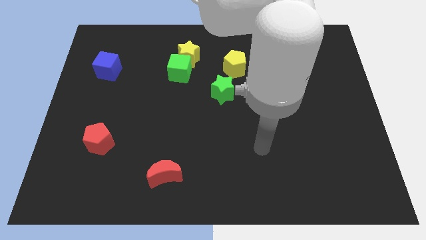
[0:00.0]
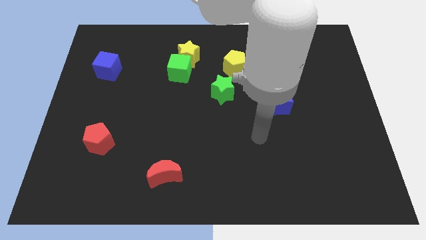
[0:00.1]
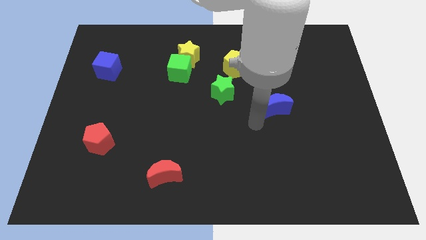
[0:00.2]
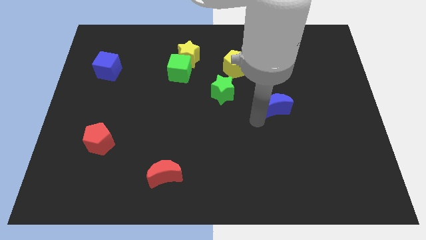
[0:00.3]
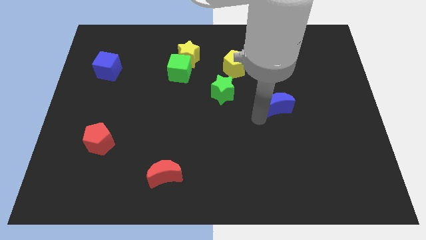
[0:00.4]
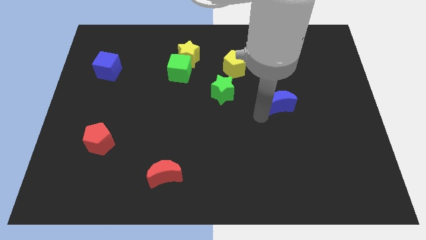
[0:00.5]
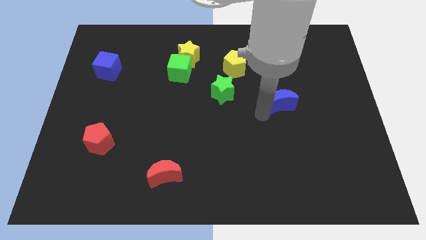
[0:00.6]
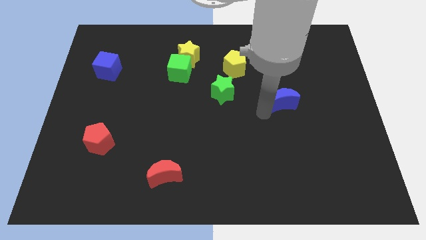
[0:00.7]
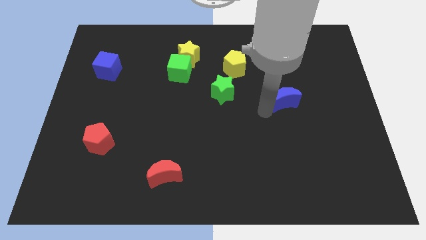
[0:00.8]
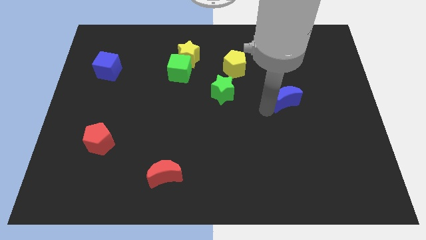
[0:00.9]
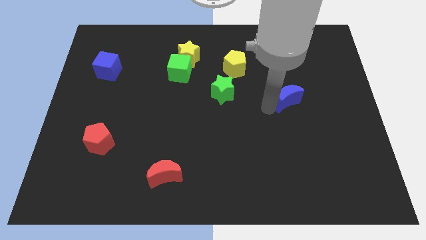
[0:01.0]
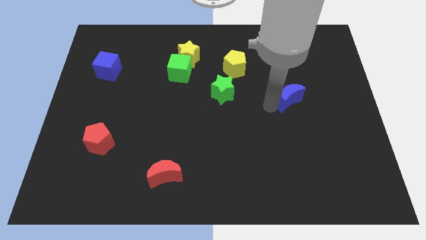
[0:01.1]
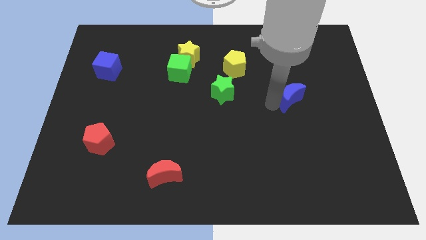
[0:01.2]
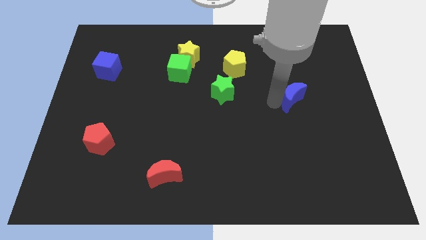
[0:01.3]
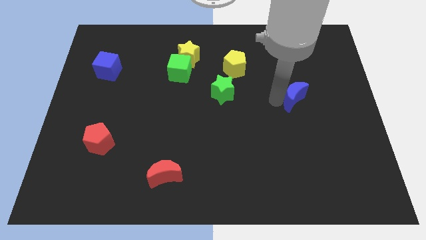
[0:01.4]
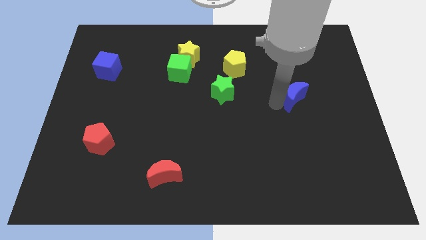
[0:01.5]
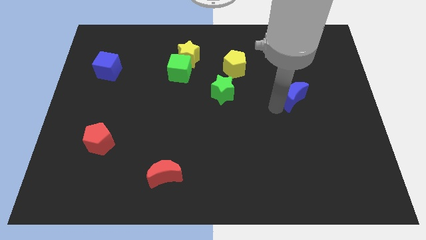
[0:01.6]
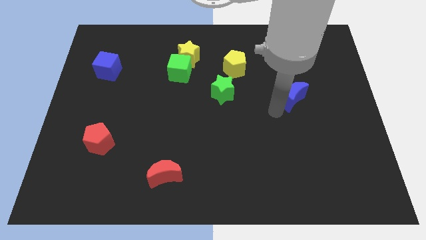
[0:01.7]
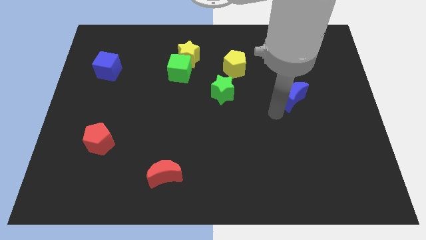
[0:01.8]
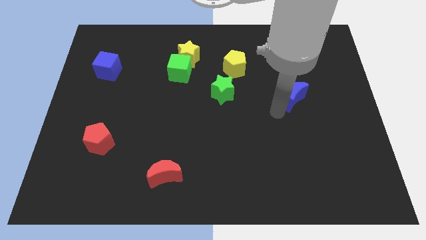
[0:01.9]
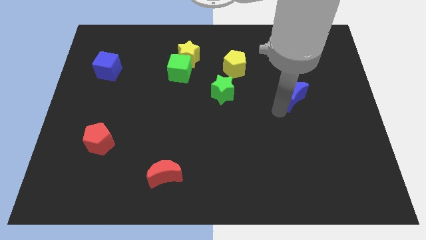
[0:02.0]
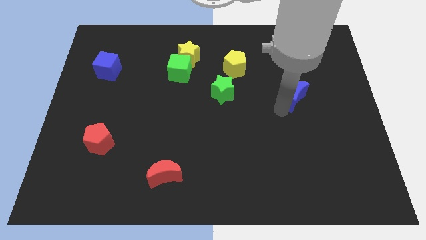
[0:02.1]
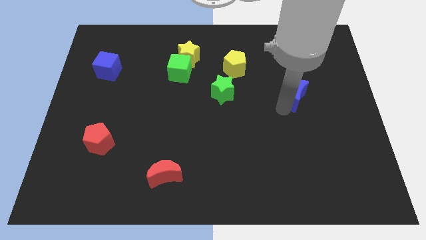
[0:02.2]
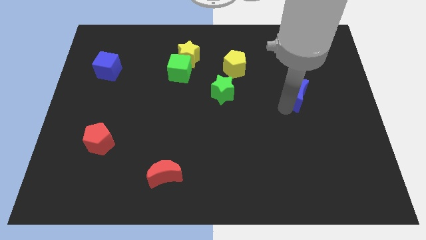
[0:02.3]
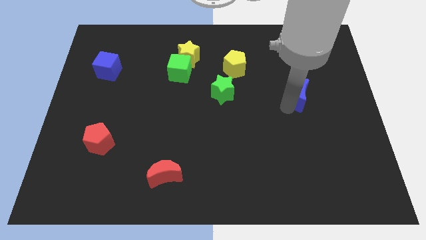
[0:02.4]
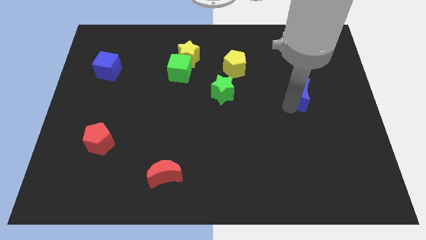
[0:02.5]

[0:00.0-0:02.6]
slightly slide the blue moon up and then right

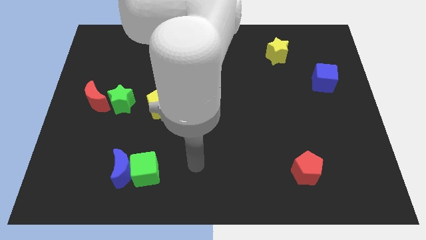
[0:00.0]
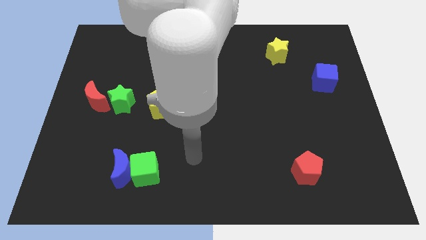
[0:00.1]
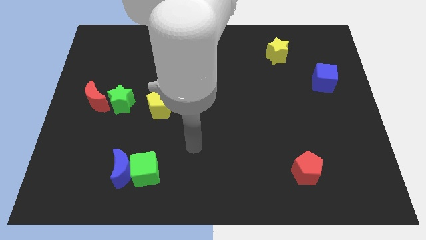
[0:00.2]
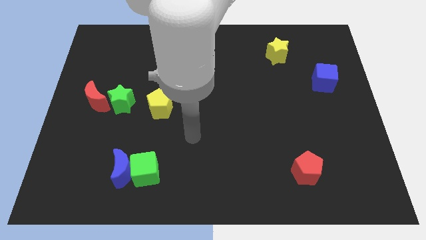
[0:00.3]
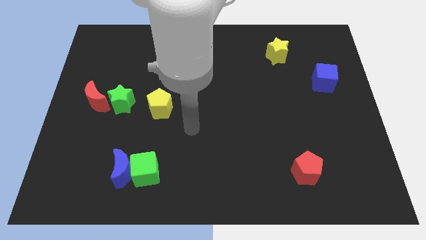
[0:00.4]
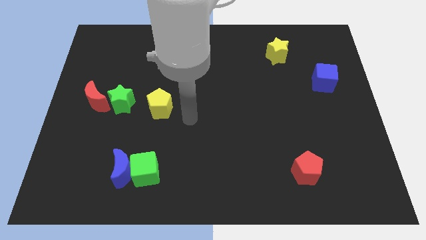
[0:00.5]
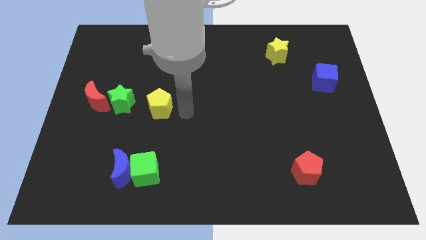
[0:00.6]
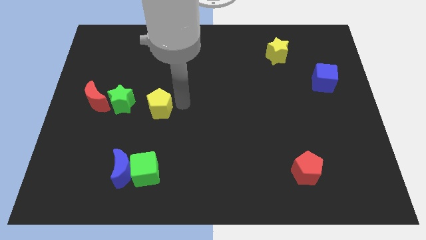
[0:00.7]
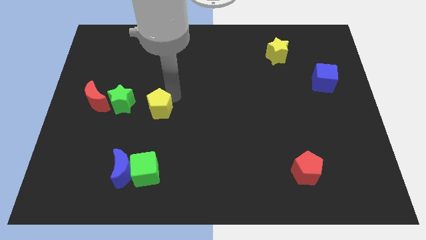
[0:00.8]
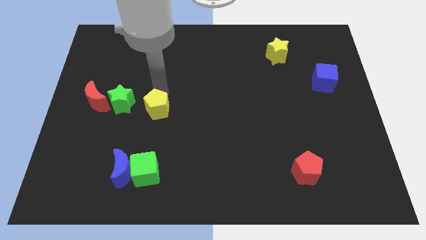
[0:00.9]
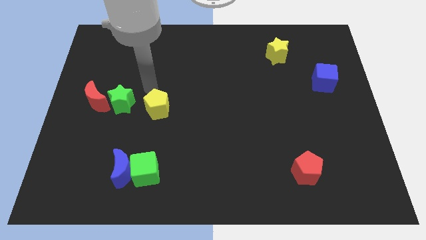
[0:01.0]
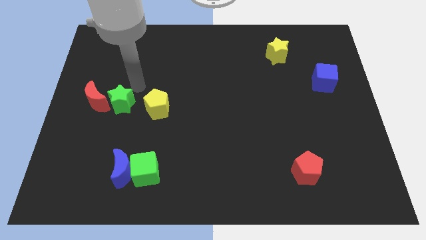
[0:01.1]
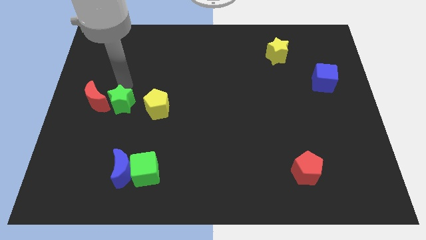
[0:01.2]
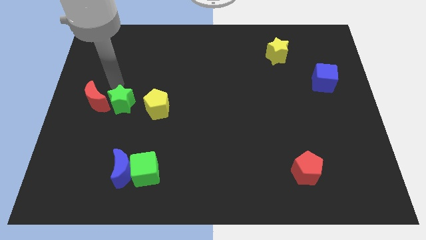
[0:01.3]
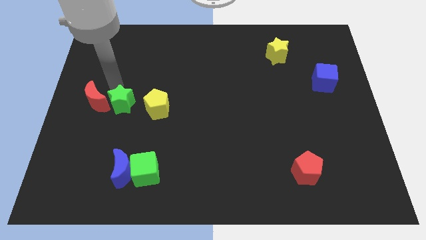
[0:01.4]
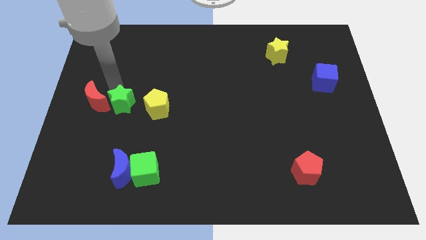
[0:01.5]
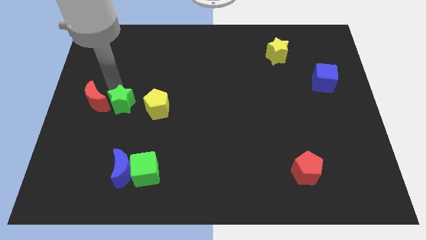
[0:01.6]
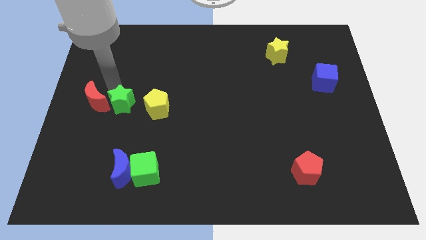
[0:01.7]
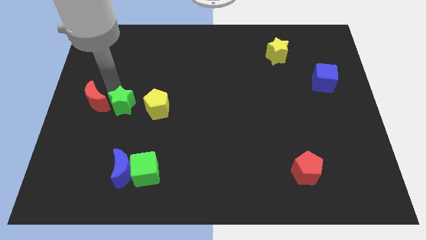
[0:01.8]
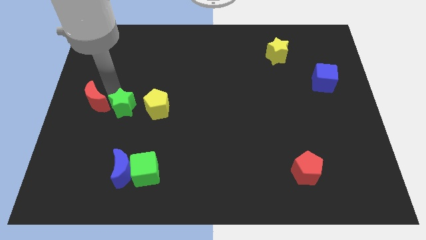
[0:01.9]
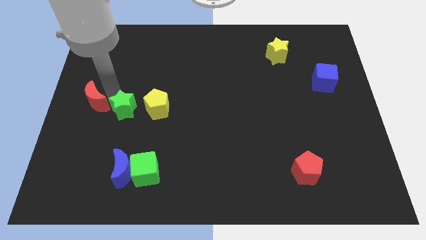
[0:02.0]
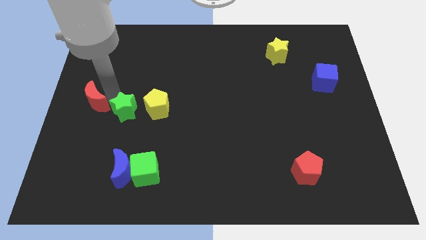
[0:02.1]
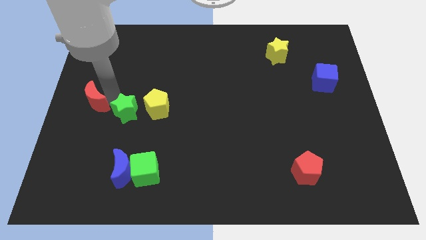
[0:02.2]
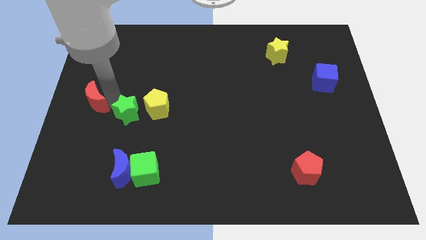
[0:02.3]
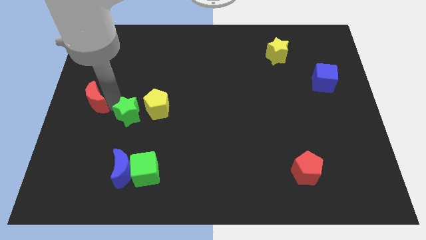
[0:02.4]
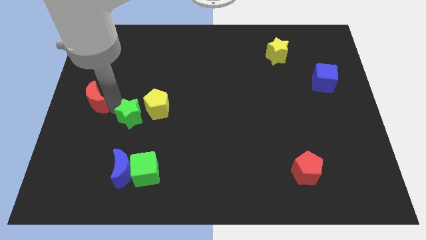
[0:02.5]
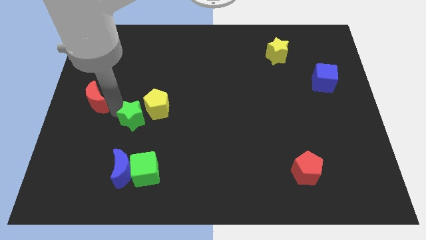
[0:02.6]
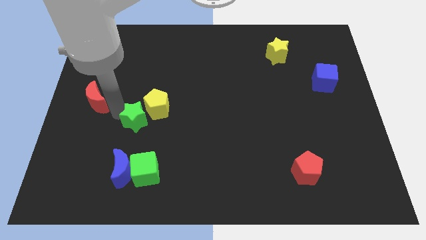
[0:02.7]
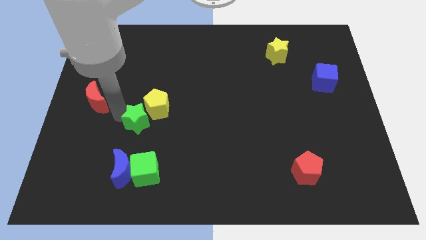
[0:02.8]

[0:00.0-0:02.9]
slide the green star a little bit downwards and to the right

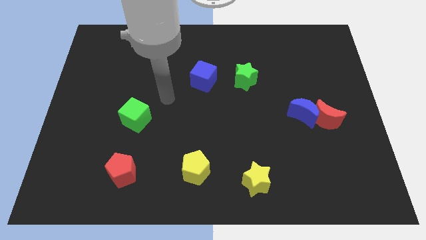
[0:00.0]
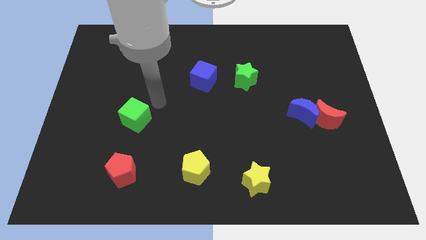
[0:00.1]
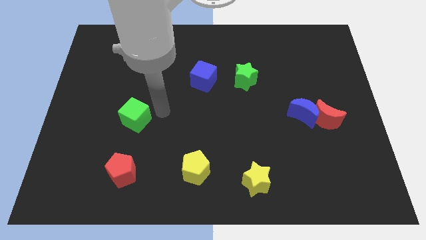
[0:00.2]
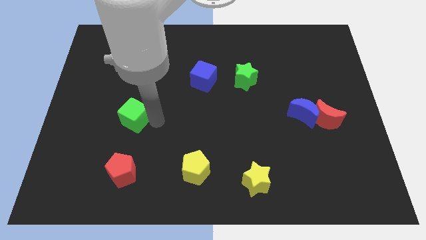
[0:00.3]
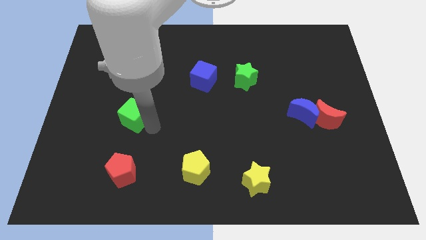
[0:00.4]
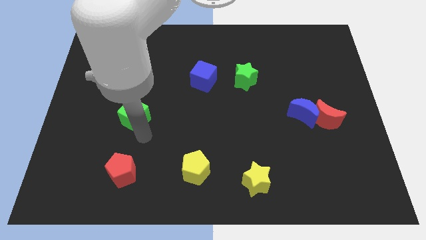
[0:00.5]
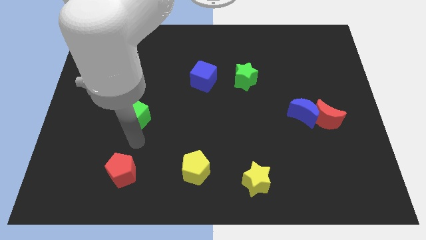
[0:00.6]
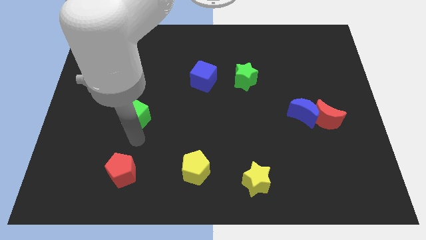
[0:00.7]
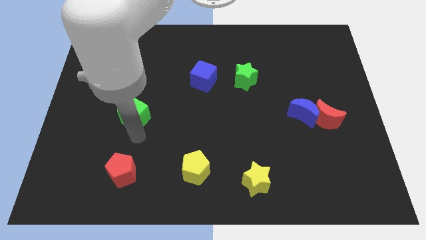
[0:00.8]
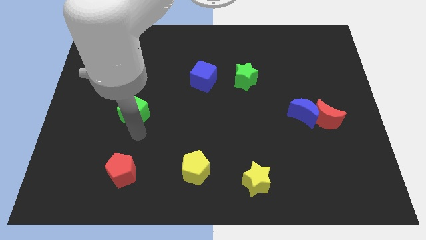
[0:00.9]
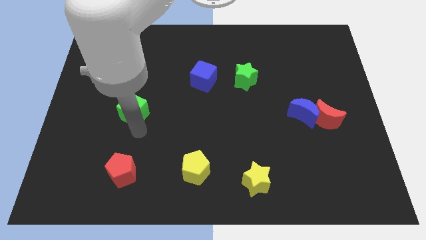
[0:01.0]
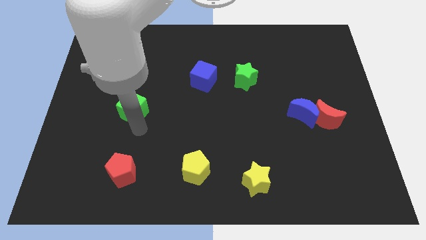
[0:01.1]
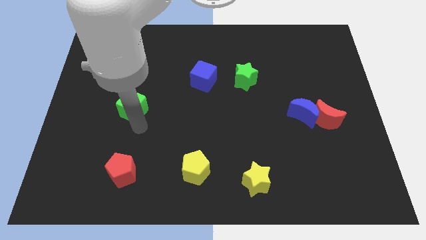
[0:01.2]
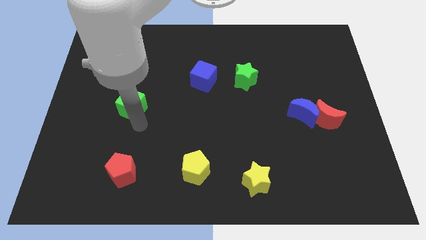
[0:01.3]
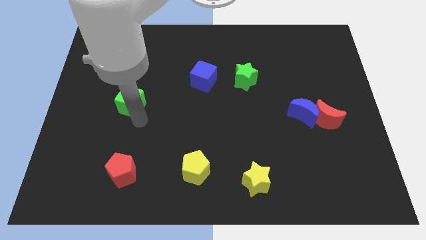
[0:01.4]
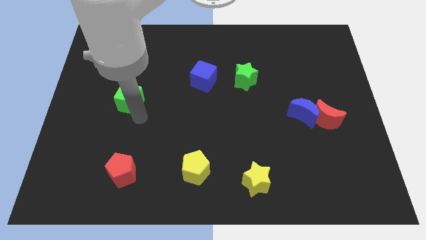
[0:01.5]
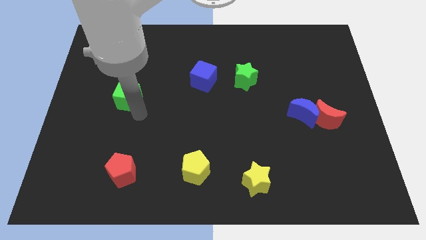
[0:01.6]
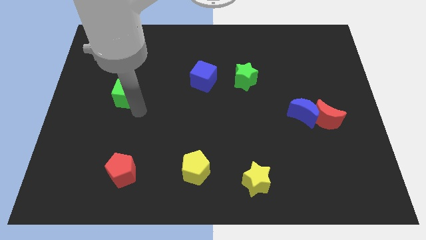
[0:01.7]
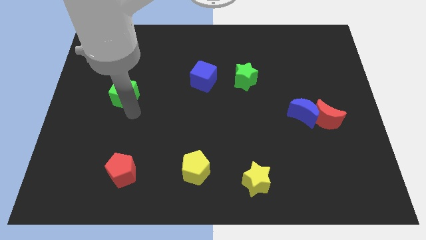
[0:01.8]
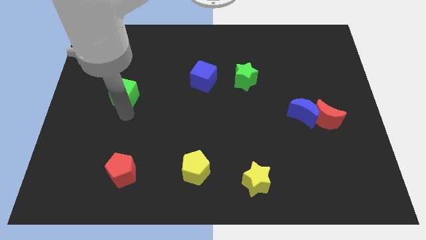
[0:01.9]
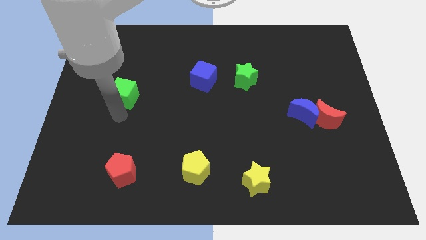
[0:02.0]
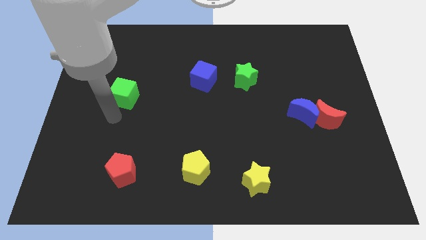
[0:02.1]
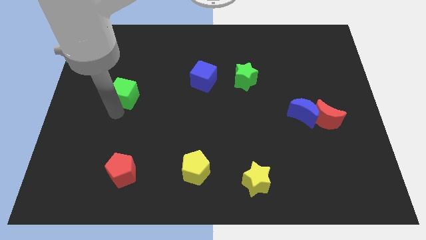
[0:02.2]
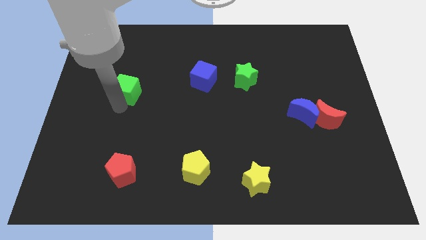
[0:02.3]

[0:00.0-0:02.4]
slide the green cube slightly upwards
